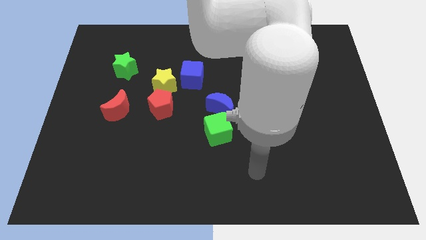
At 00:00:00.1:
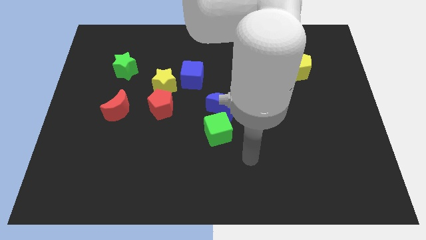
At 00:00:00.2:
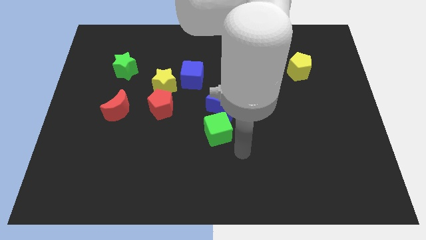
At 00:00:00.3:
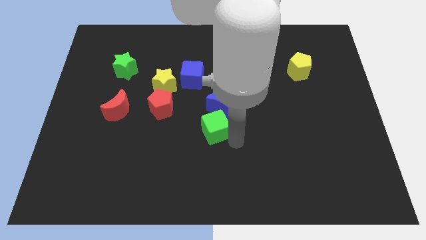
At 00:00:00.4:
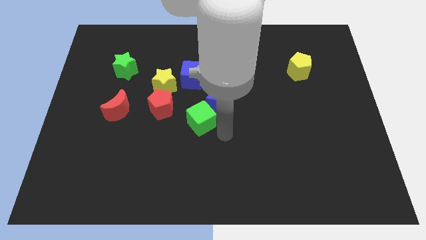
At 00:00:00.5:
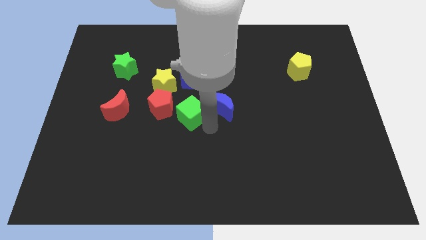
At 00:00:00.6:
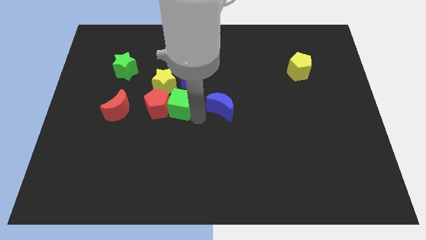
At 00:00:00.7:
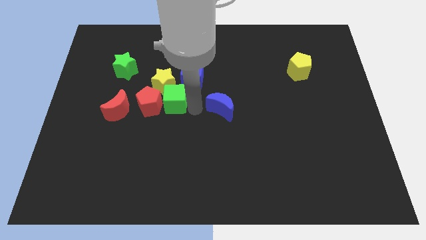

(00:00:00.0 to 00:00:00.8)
separate the blue moon from the green cube

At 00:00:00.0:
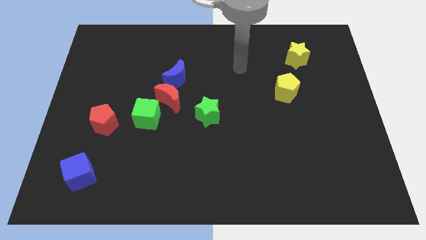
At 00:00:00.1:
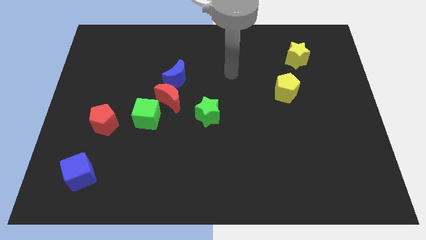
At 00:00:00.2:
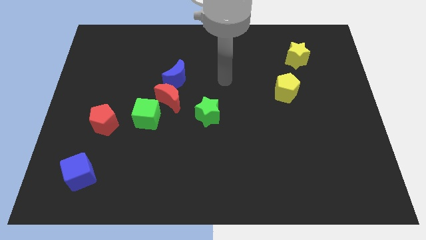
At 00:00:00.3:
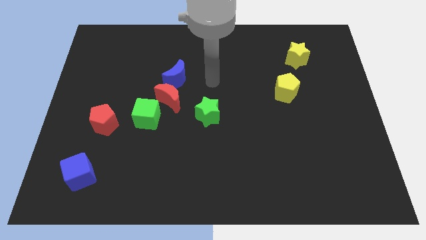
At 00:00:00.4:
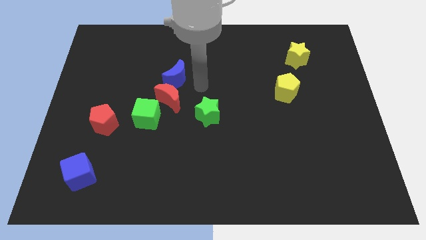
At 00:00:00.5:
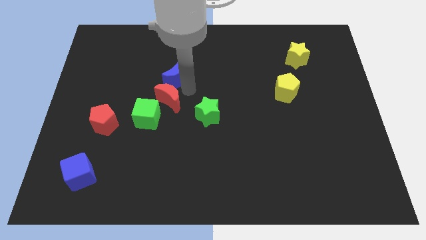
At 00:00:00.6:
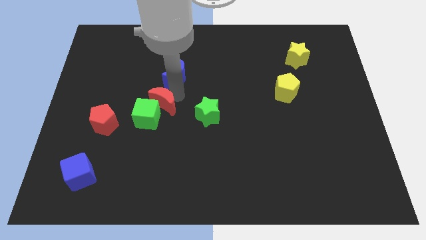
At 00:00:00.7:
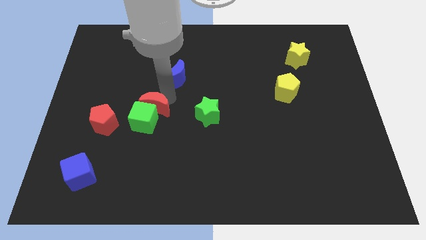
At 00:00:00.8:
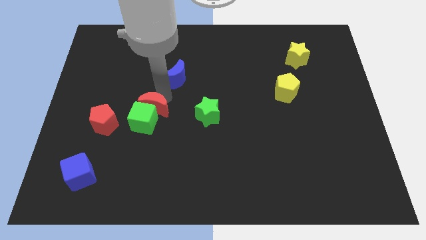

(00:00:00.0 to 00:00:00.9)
separate the blue moon from the red moon

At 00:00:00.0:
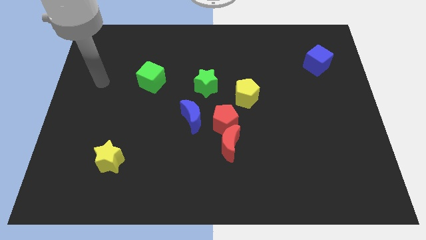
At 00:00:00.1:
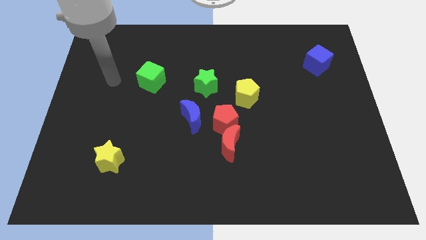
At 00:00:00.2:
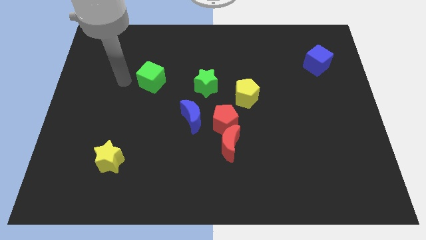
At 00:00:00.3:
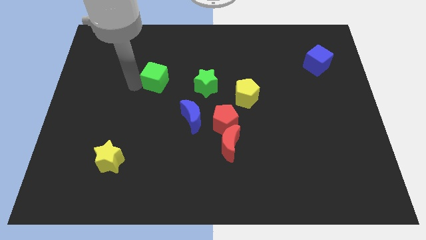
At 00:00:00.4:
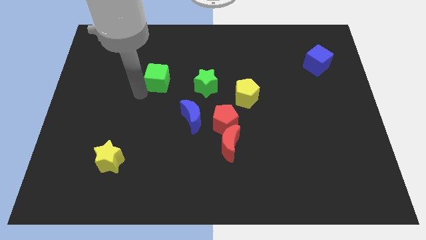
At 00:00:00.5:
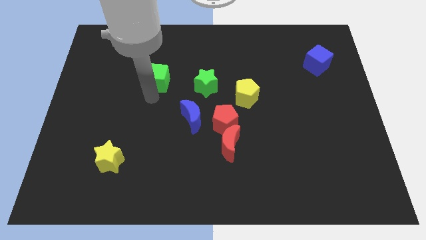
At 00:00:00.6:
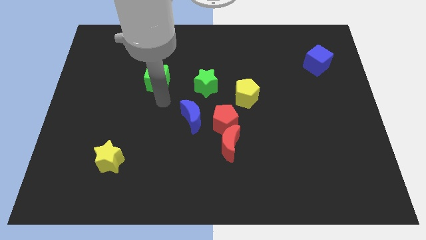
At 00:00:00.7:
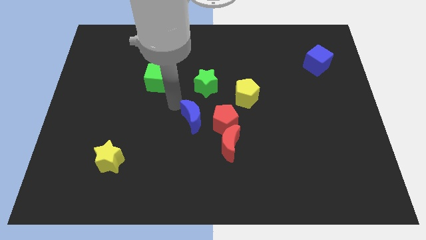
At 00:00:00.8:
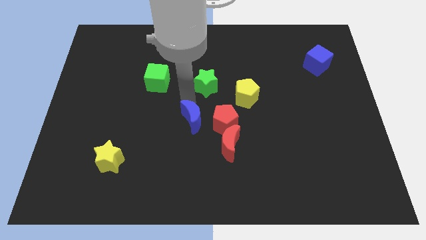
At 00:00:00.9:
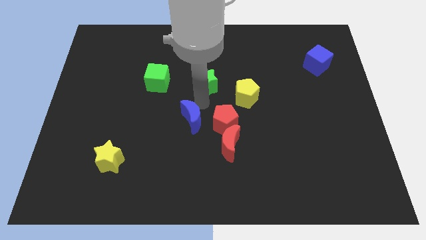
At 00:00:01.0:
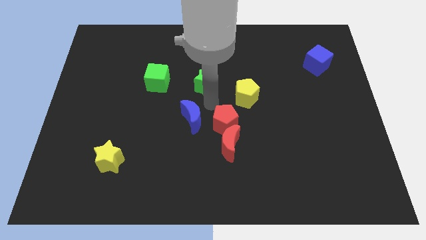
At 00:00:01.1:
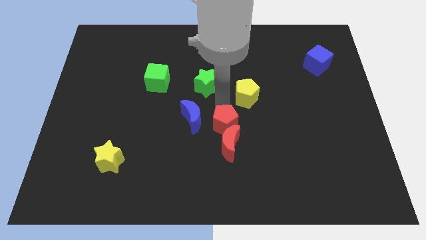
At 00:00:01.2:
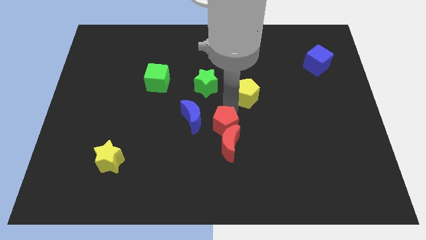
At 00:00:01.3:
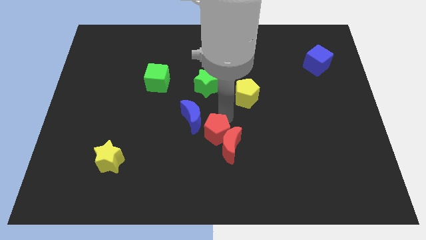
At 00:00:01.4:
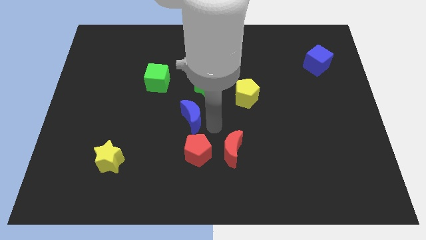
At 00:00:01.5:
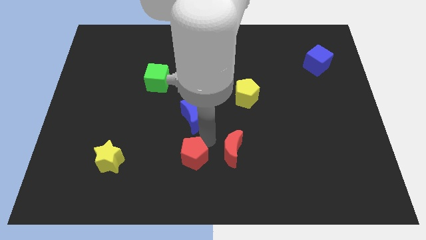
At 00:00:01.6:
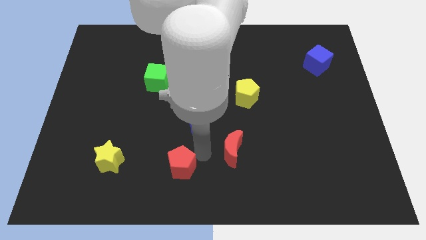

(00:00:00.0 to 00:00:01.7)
move the red moon away from the red pentagon

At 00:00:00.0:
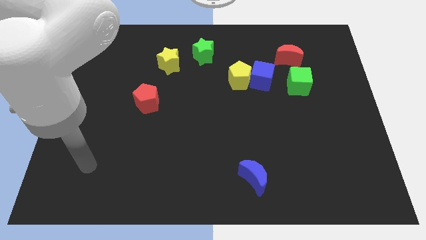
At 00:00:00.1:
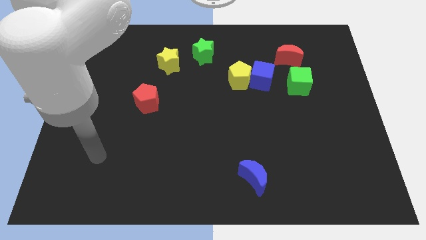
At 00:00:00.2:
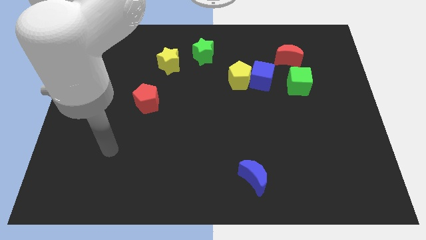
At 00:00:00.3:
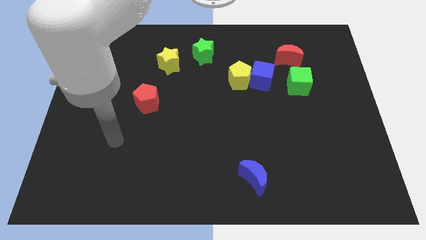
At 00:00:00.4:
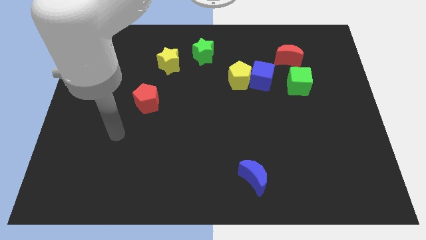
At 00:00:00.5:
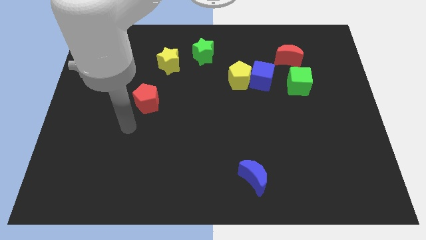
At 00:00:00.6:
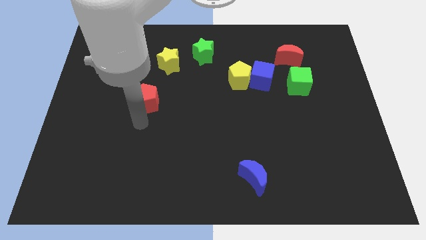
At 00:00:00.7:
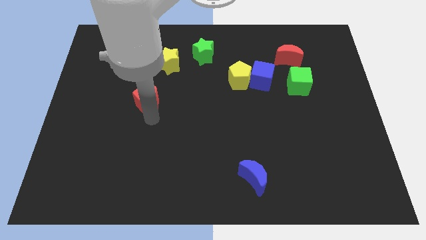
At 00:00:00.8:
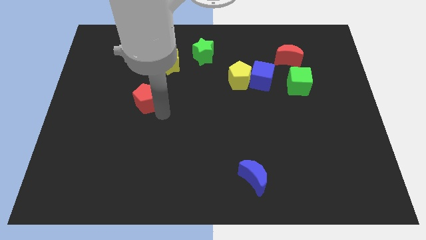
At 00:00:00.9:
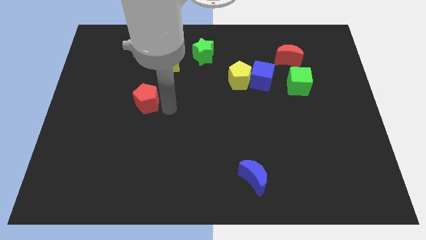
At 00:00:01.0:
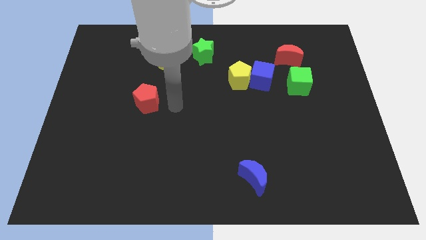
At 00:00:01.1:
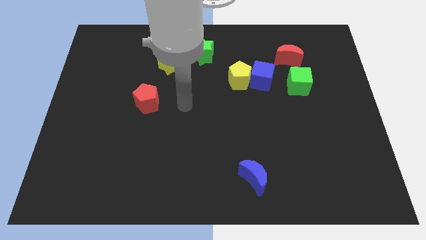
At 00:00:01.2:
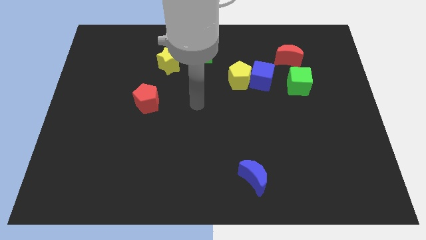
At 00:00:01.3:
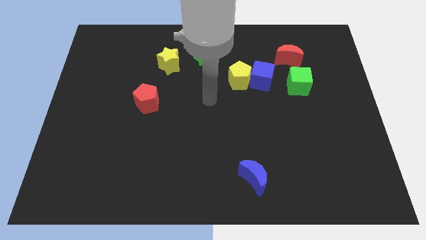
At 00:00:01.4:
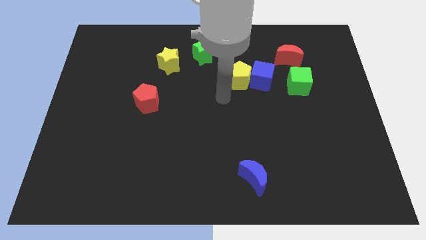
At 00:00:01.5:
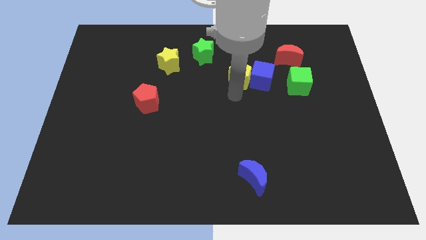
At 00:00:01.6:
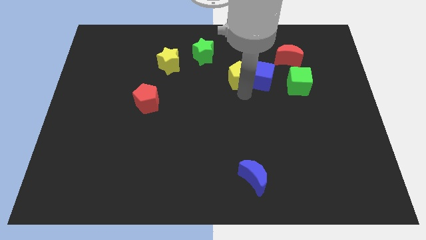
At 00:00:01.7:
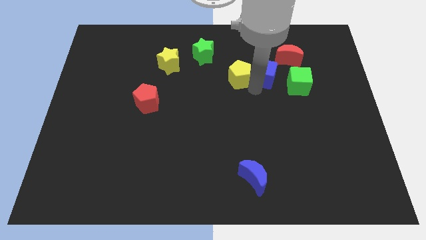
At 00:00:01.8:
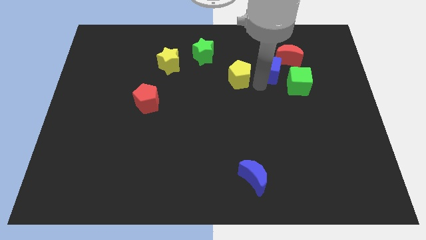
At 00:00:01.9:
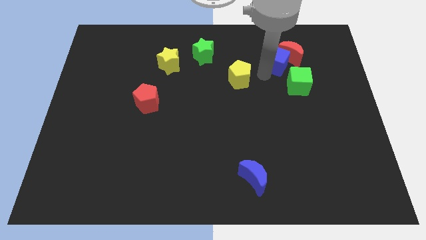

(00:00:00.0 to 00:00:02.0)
move the yellow pentagon away from the blue cube

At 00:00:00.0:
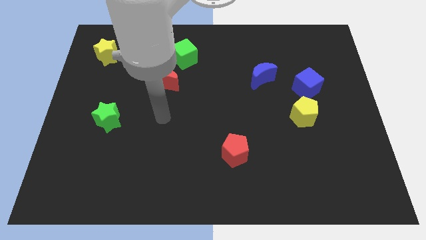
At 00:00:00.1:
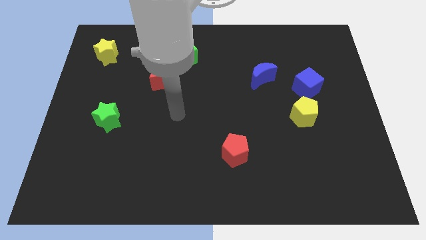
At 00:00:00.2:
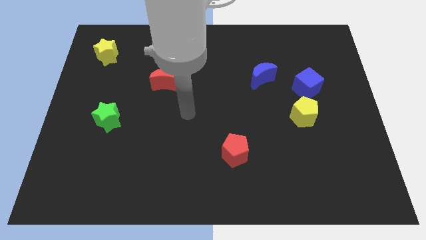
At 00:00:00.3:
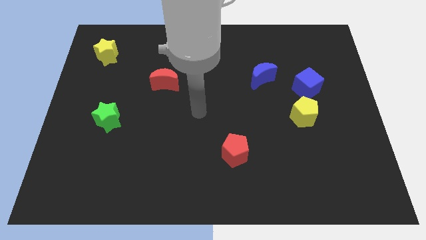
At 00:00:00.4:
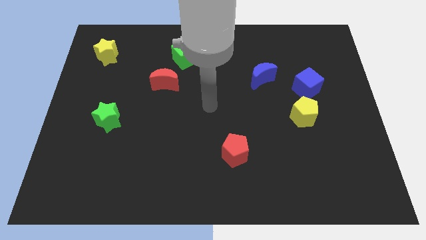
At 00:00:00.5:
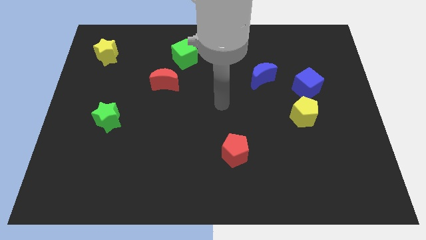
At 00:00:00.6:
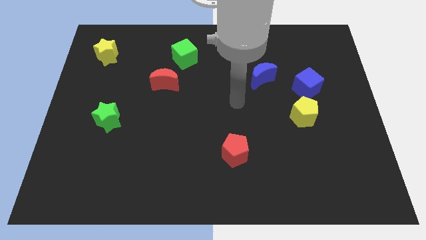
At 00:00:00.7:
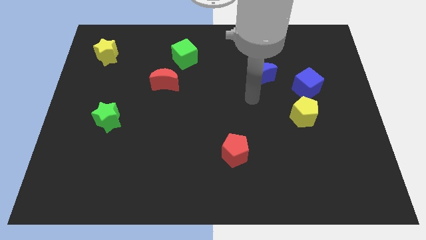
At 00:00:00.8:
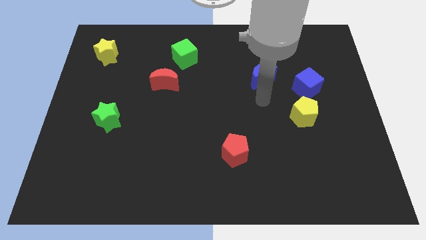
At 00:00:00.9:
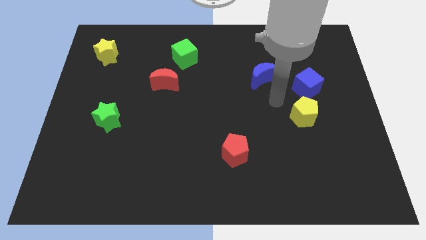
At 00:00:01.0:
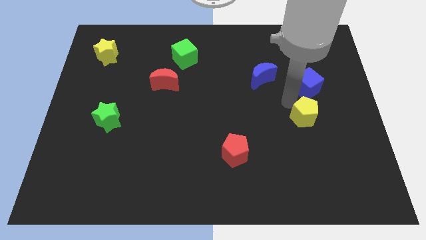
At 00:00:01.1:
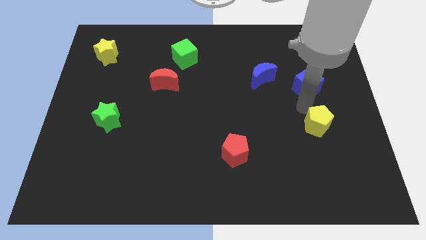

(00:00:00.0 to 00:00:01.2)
pull the blue cube apart from the yellow pentagon

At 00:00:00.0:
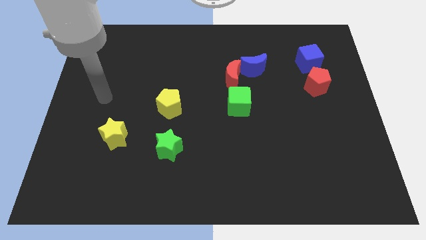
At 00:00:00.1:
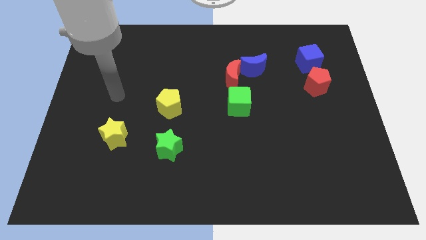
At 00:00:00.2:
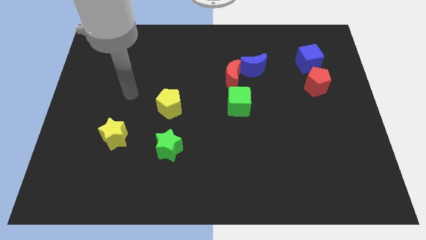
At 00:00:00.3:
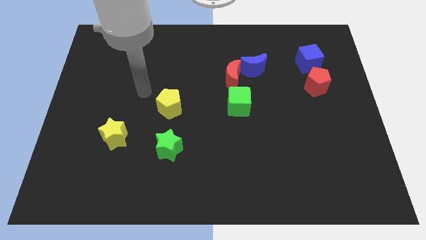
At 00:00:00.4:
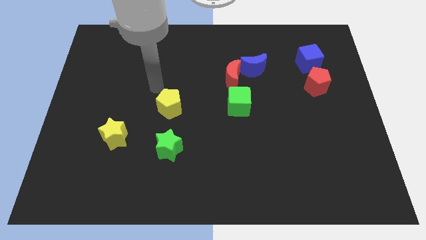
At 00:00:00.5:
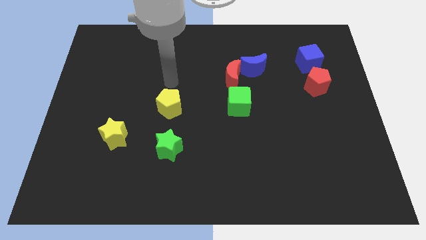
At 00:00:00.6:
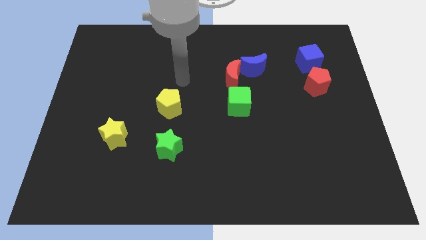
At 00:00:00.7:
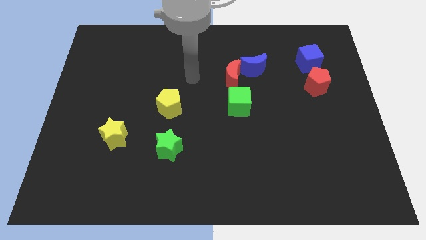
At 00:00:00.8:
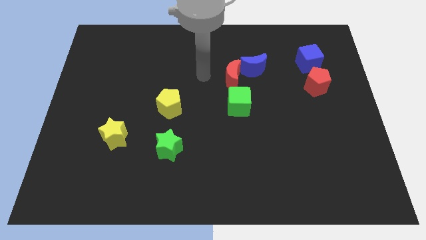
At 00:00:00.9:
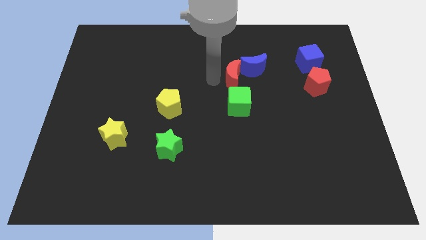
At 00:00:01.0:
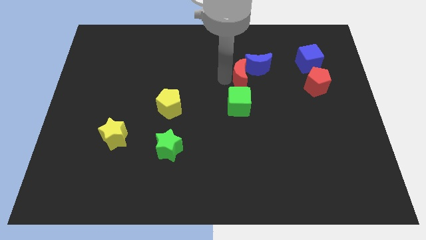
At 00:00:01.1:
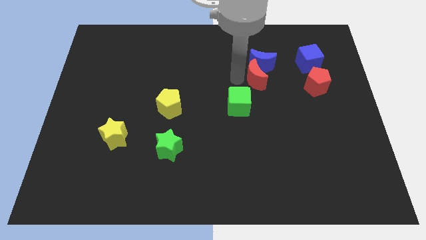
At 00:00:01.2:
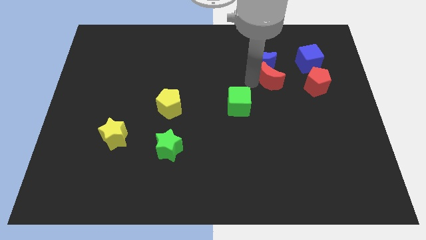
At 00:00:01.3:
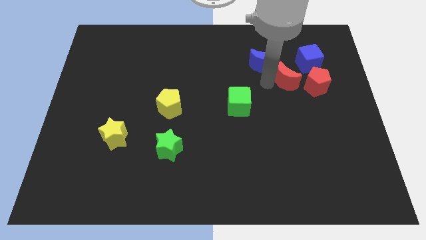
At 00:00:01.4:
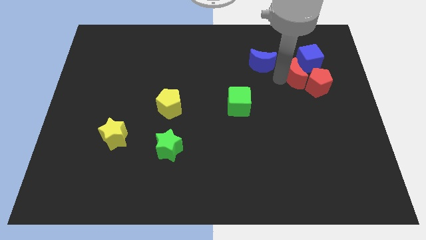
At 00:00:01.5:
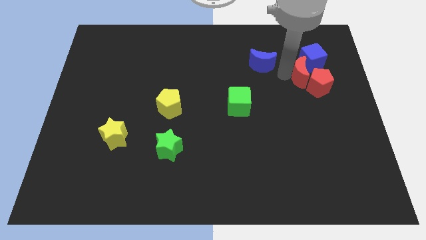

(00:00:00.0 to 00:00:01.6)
pull the blue moon apart from the red moon

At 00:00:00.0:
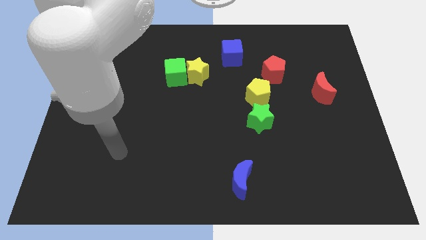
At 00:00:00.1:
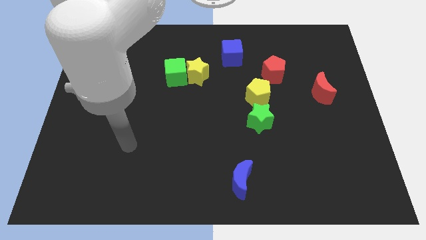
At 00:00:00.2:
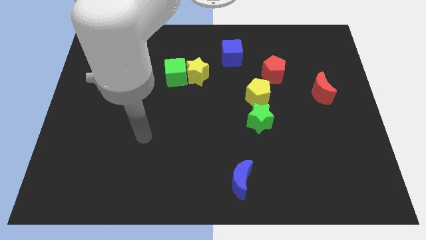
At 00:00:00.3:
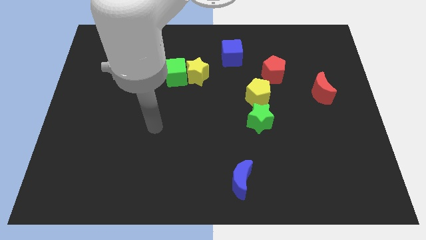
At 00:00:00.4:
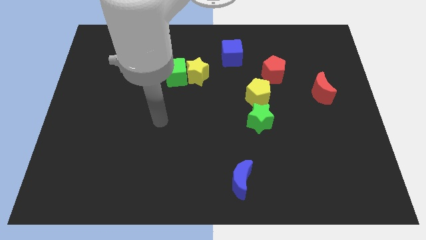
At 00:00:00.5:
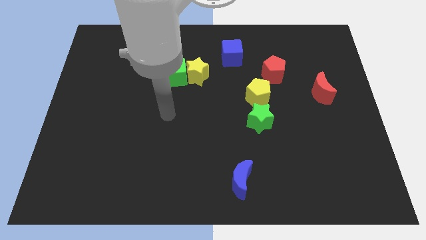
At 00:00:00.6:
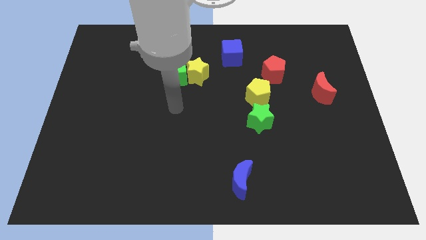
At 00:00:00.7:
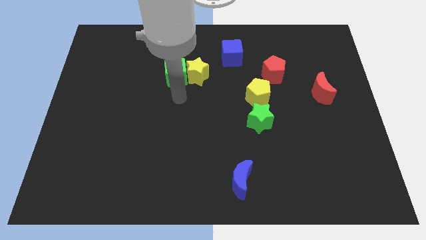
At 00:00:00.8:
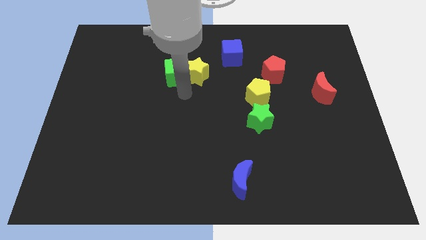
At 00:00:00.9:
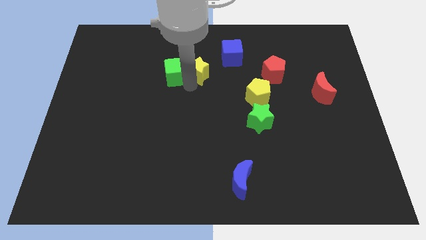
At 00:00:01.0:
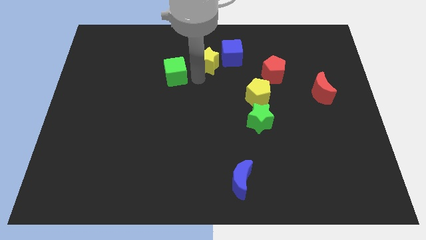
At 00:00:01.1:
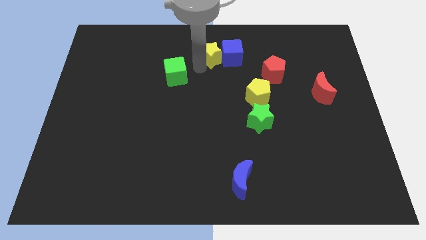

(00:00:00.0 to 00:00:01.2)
move the green cube away from the yellow star
